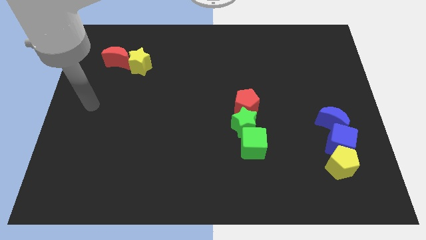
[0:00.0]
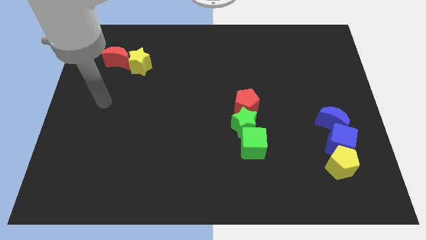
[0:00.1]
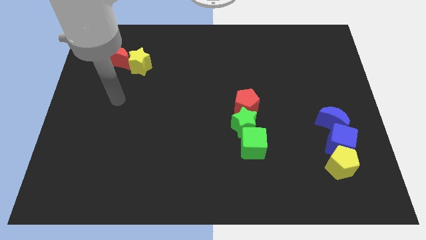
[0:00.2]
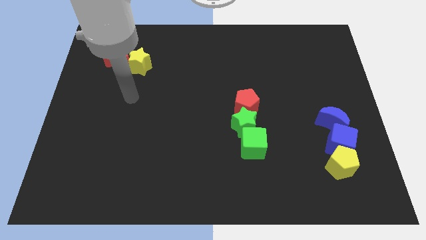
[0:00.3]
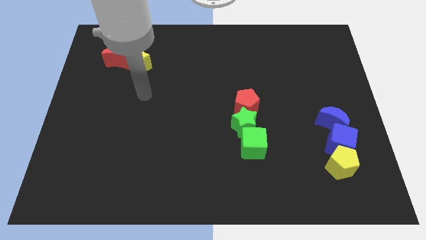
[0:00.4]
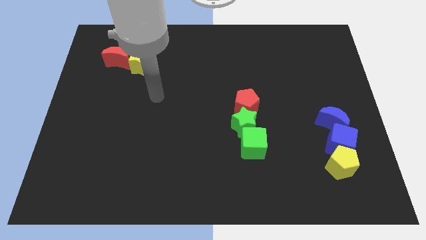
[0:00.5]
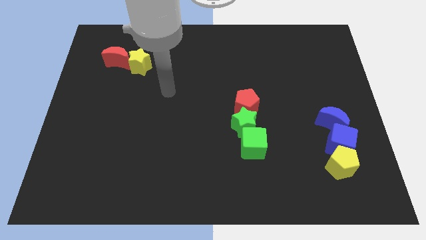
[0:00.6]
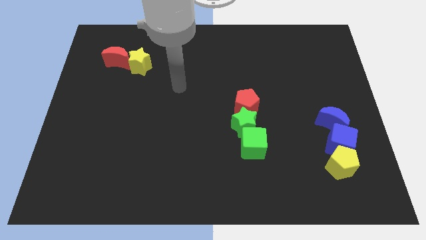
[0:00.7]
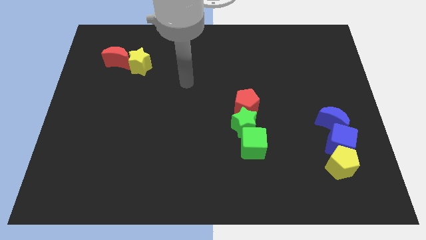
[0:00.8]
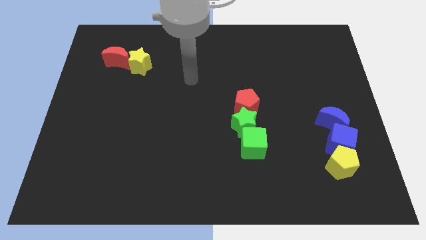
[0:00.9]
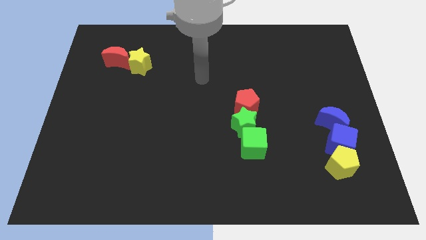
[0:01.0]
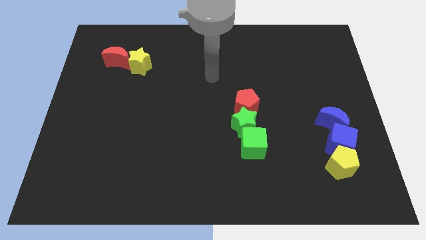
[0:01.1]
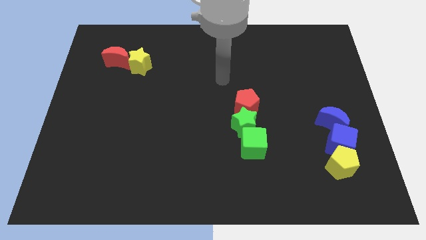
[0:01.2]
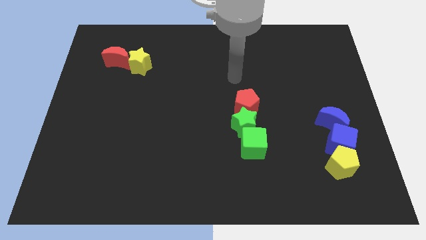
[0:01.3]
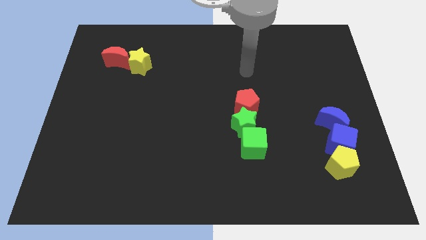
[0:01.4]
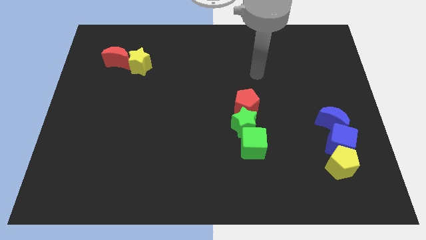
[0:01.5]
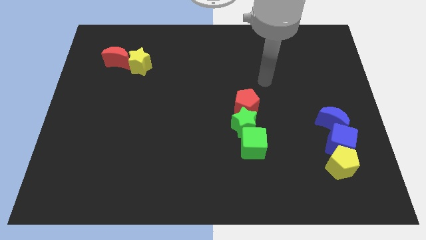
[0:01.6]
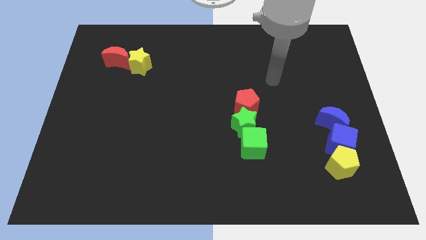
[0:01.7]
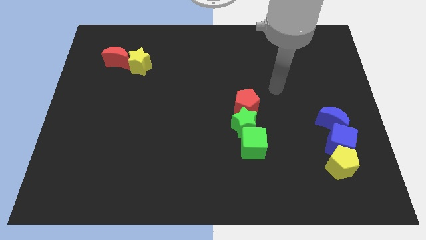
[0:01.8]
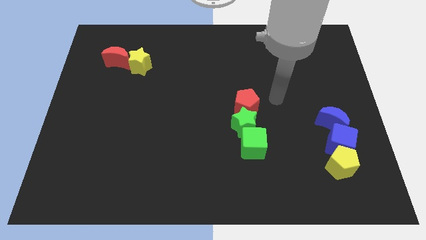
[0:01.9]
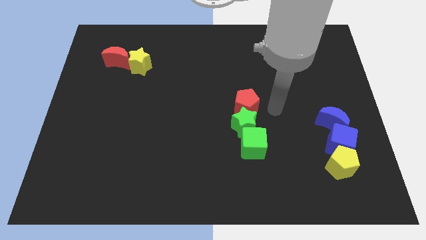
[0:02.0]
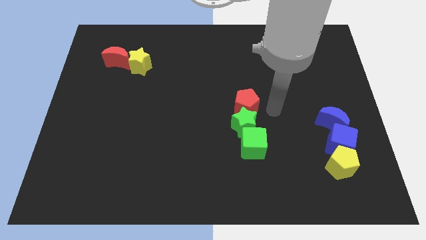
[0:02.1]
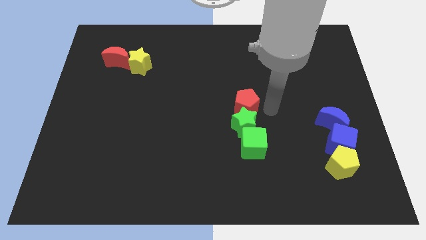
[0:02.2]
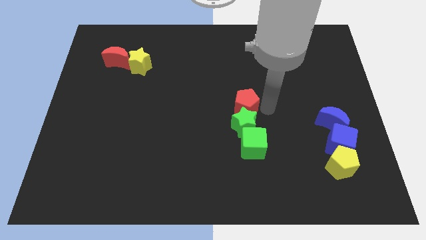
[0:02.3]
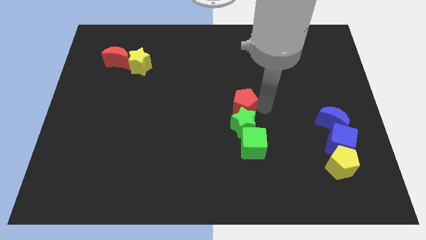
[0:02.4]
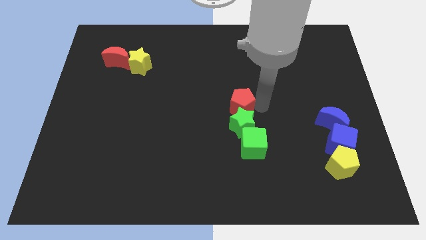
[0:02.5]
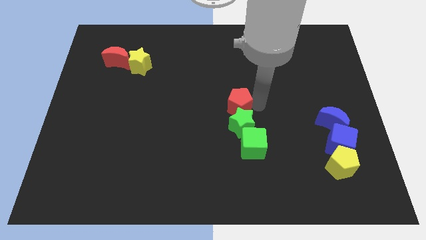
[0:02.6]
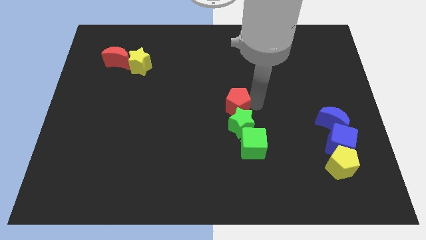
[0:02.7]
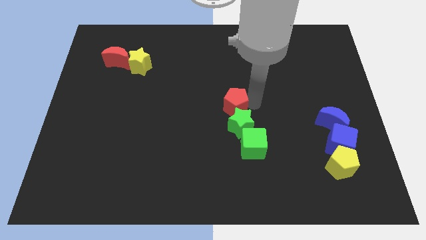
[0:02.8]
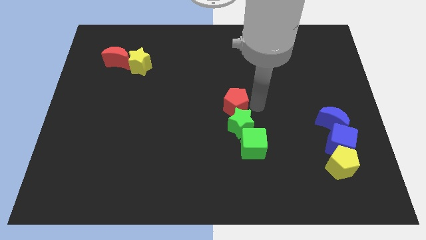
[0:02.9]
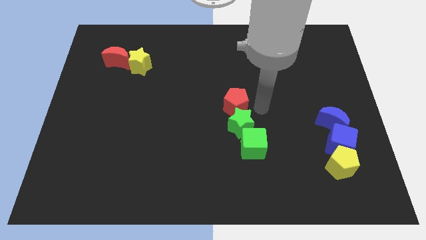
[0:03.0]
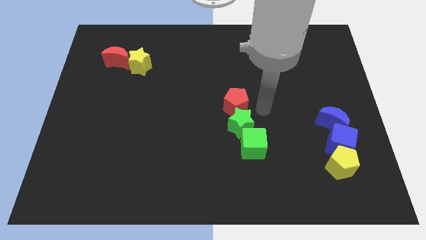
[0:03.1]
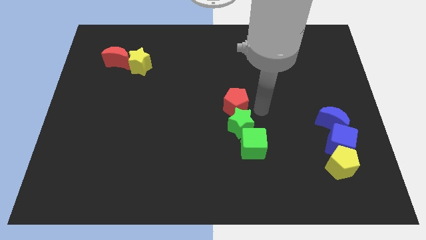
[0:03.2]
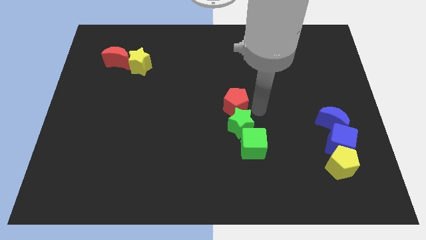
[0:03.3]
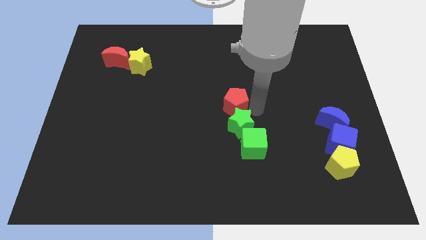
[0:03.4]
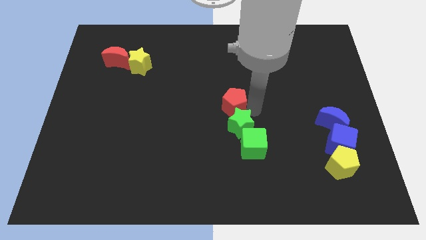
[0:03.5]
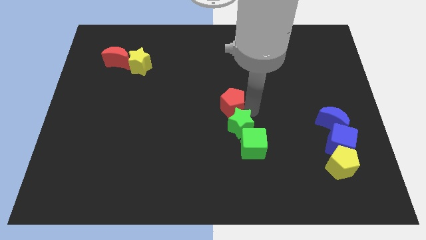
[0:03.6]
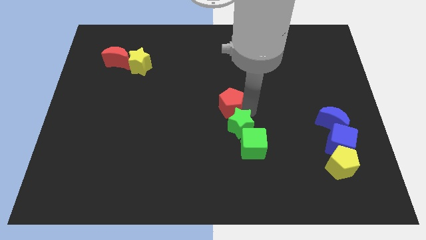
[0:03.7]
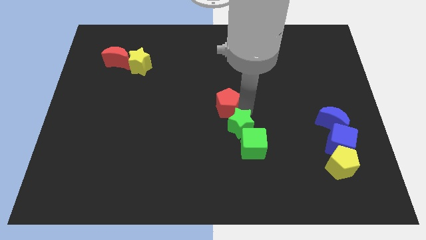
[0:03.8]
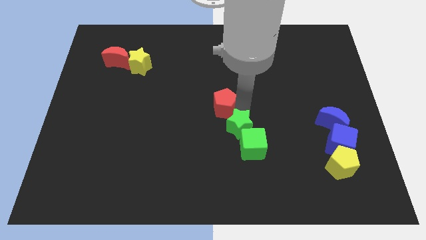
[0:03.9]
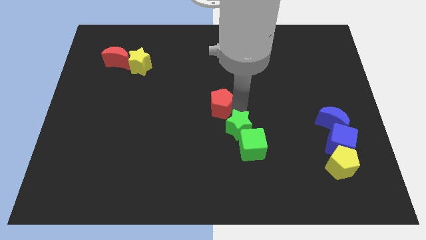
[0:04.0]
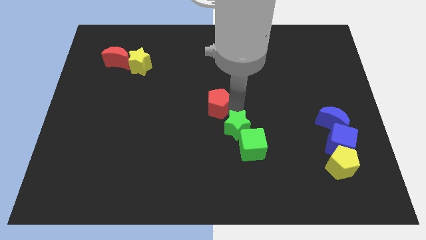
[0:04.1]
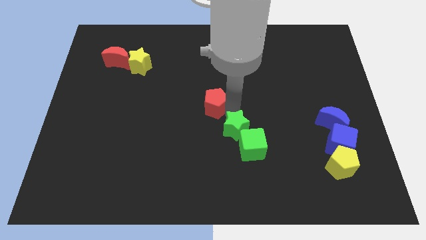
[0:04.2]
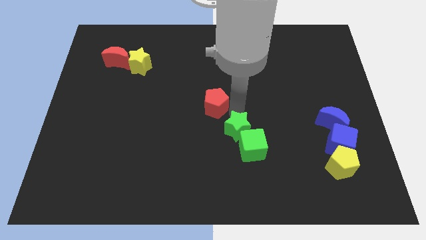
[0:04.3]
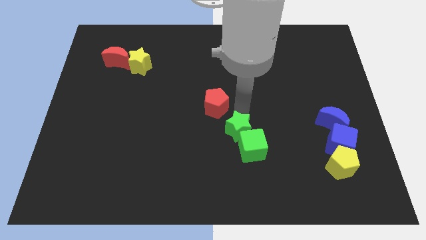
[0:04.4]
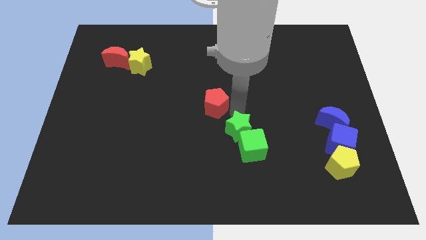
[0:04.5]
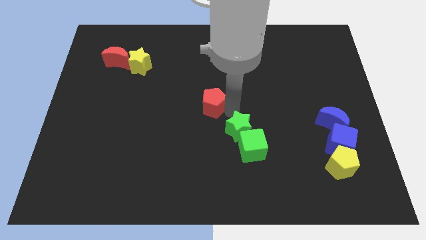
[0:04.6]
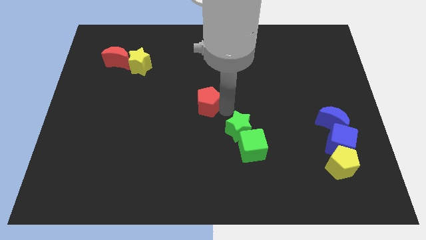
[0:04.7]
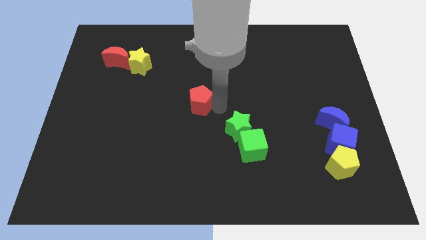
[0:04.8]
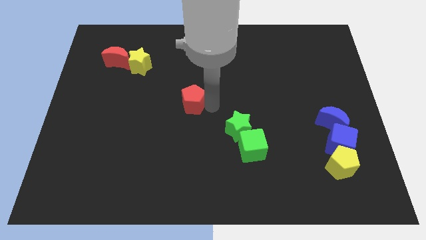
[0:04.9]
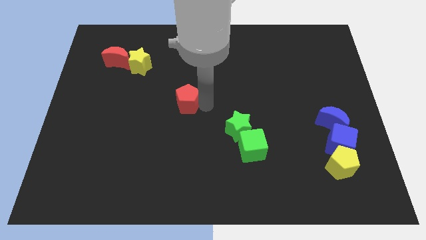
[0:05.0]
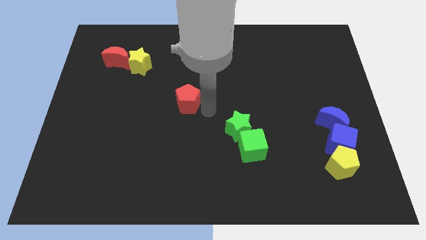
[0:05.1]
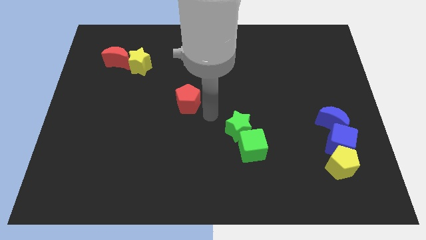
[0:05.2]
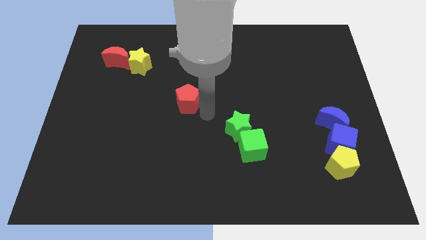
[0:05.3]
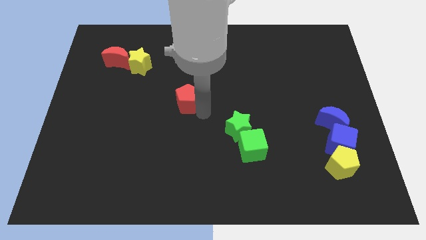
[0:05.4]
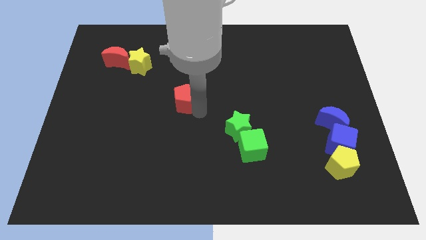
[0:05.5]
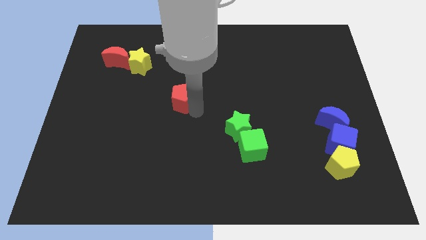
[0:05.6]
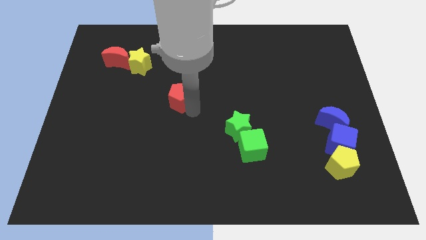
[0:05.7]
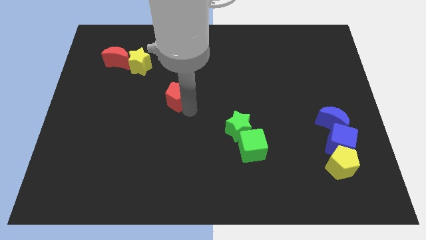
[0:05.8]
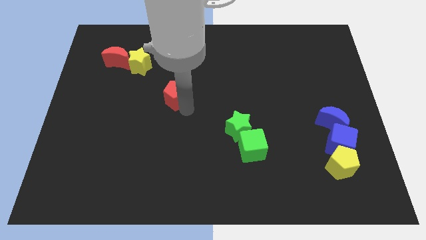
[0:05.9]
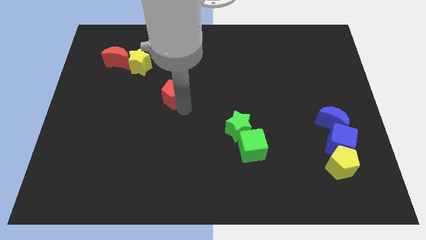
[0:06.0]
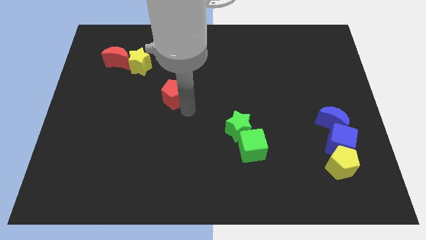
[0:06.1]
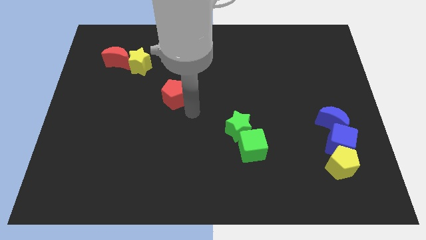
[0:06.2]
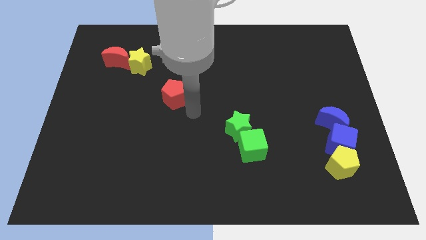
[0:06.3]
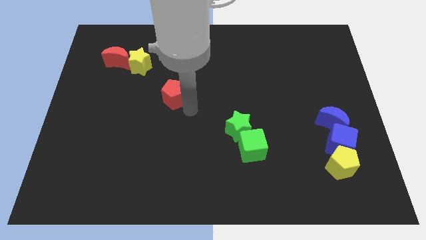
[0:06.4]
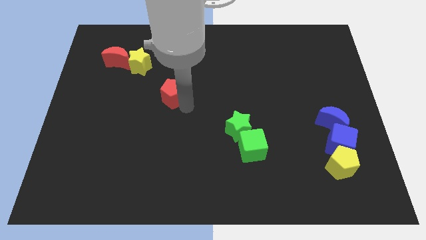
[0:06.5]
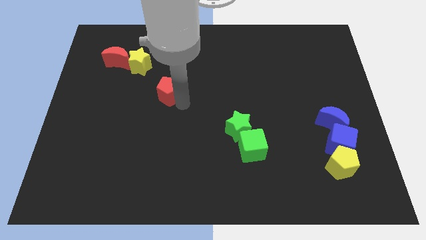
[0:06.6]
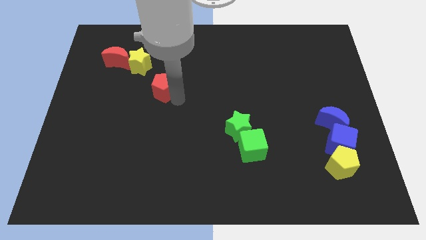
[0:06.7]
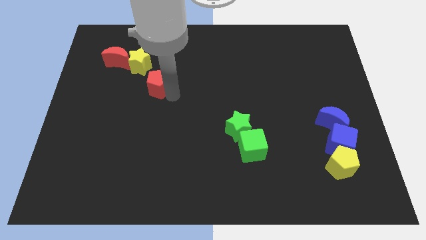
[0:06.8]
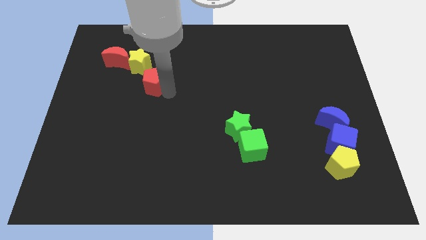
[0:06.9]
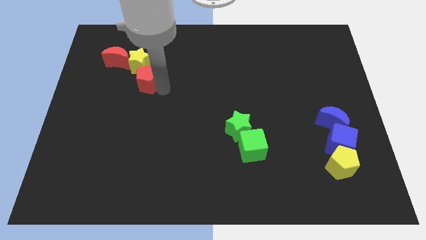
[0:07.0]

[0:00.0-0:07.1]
slide the red pentagon diagonally down and to the right of the red moon
